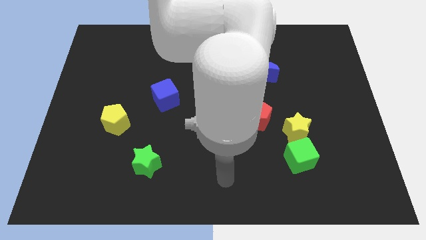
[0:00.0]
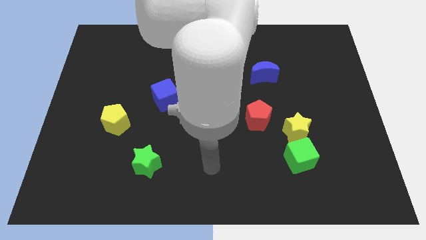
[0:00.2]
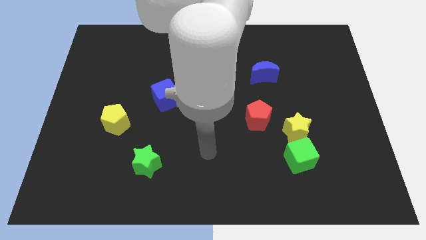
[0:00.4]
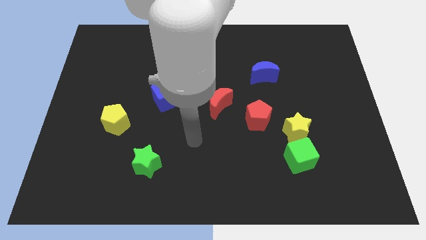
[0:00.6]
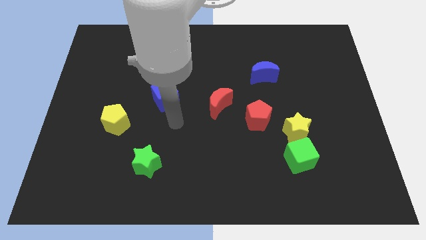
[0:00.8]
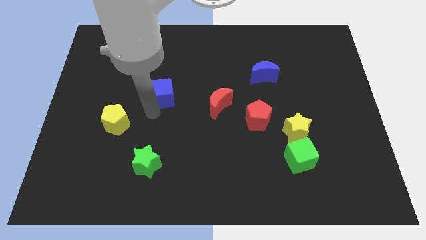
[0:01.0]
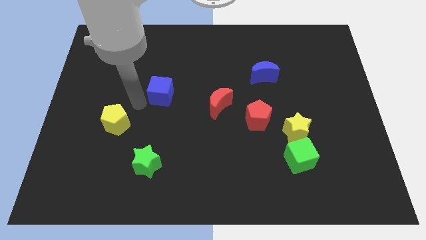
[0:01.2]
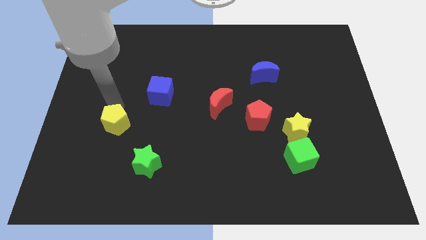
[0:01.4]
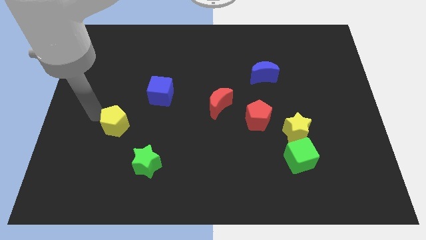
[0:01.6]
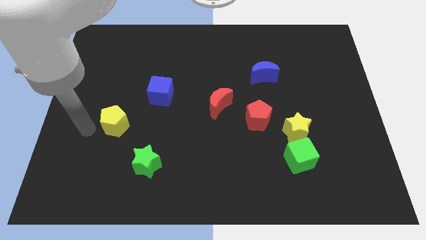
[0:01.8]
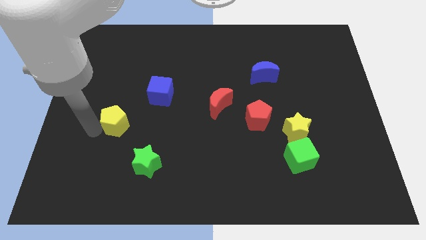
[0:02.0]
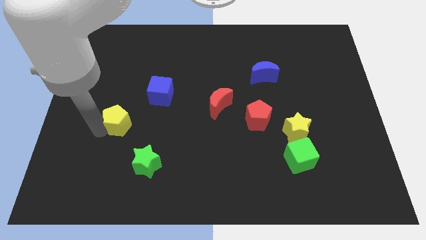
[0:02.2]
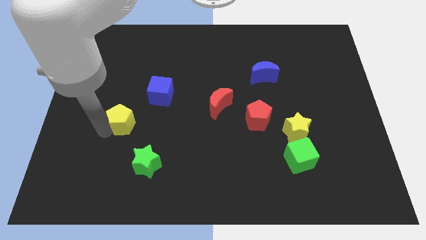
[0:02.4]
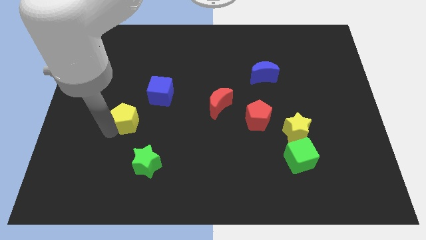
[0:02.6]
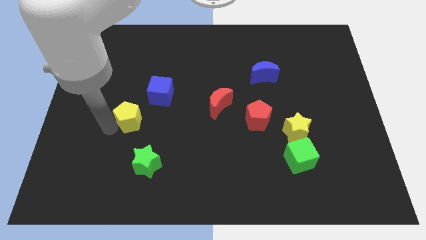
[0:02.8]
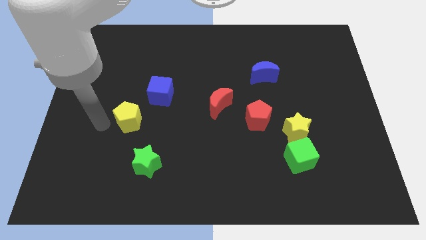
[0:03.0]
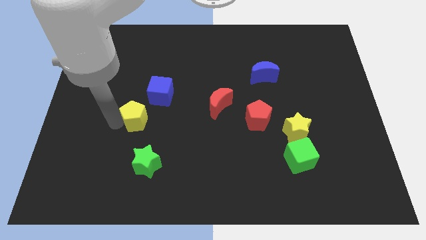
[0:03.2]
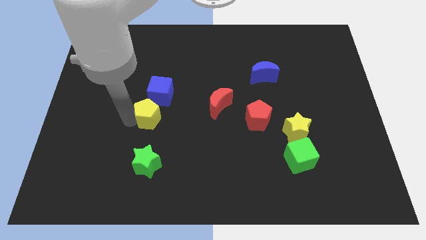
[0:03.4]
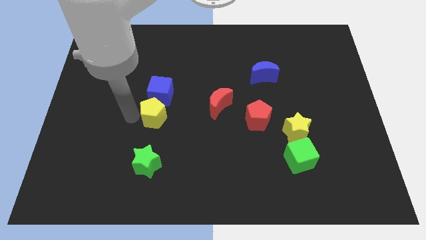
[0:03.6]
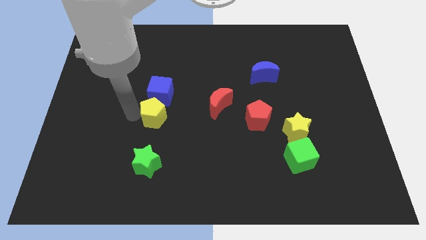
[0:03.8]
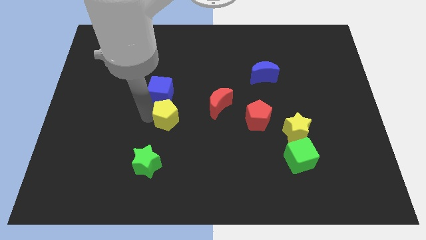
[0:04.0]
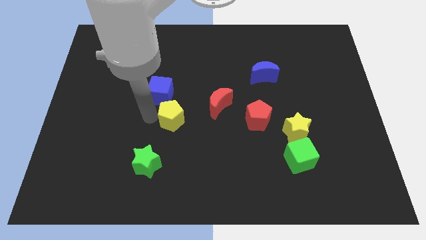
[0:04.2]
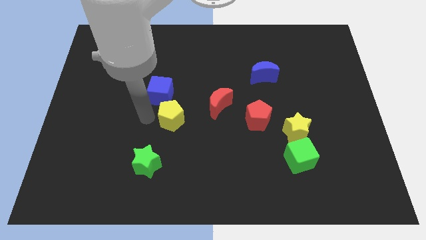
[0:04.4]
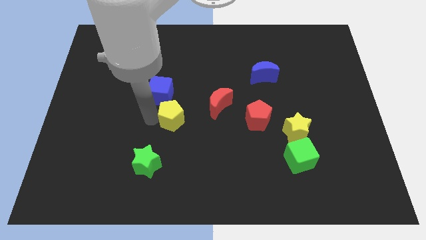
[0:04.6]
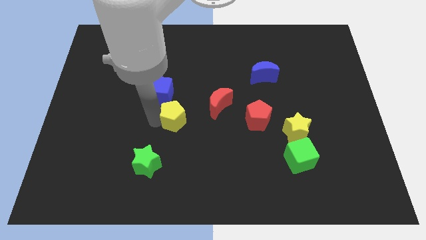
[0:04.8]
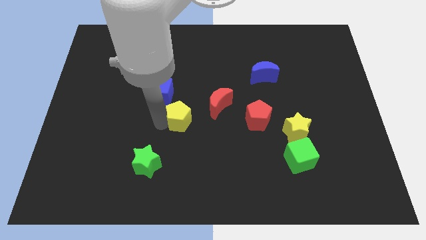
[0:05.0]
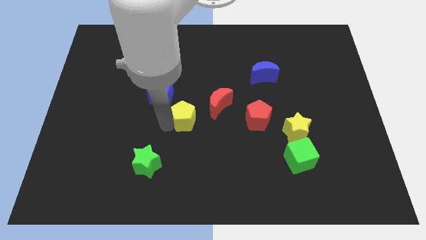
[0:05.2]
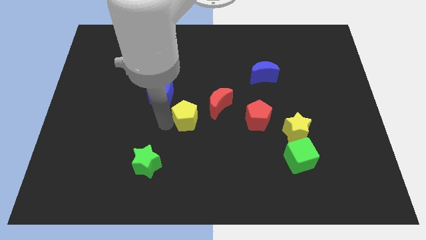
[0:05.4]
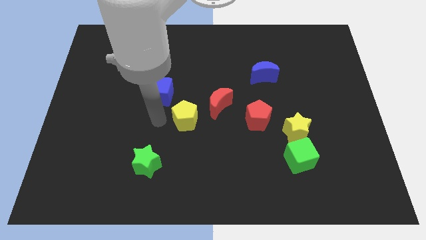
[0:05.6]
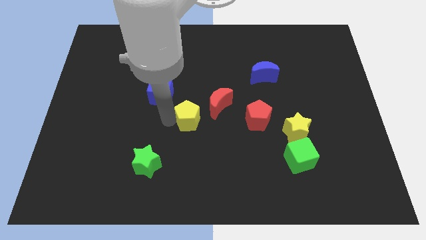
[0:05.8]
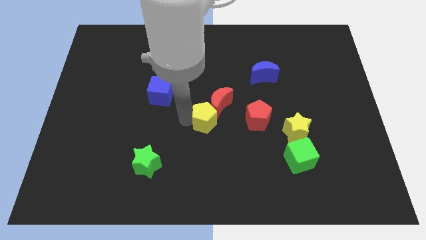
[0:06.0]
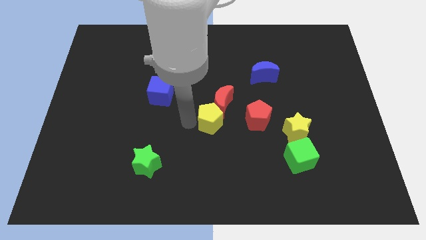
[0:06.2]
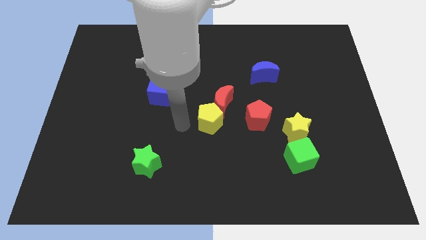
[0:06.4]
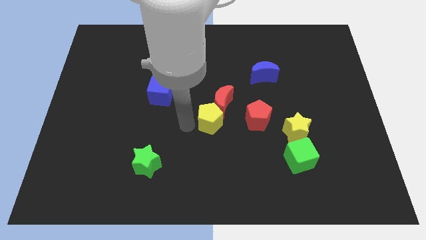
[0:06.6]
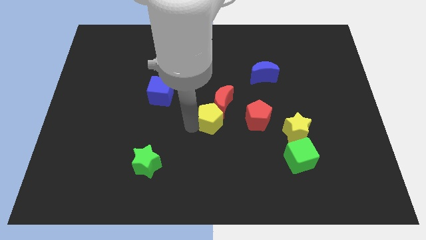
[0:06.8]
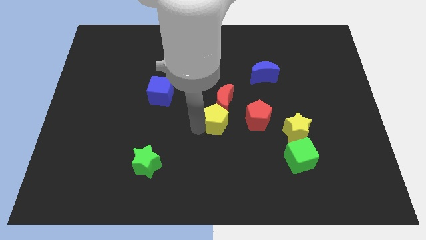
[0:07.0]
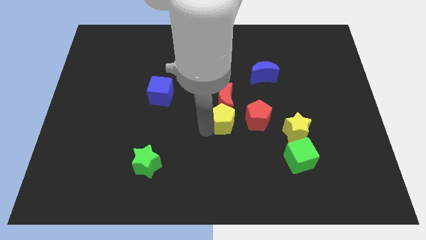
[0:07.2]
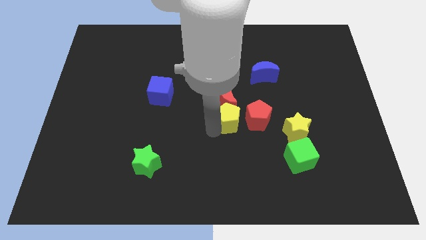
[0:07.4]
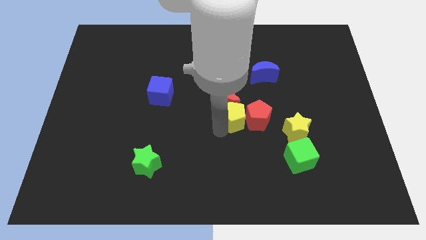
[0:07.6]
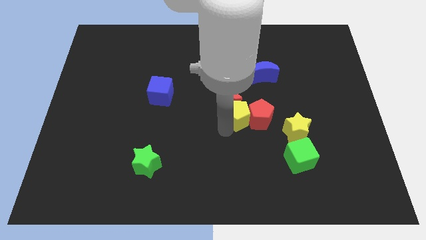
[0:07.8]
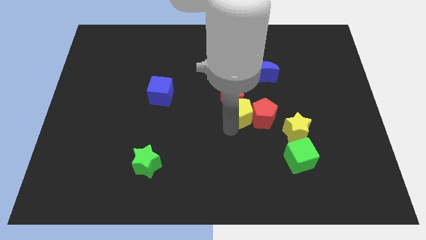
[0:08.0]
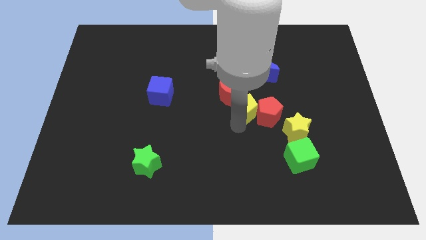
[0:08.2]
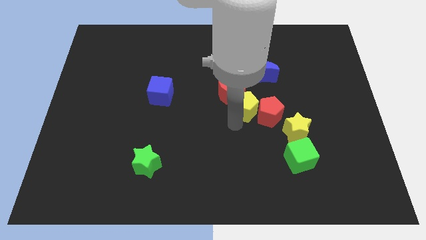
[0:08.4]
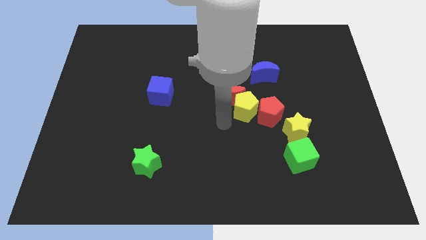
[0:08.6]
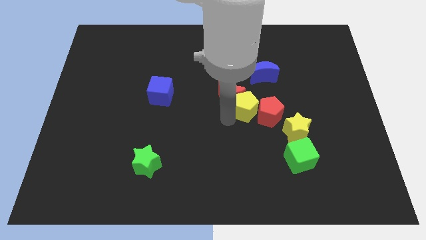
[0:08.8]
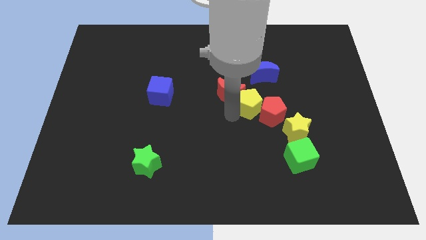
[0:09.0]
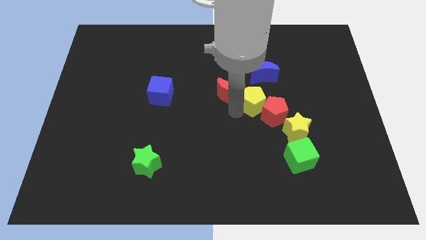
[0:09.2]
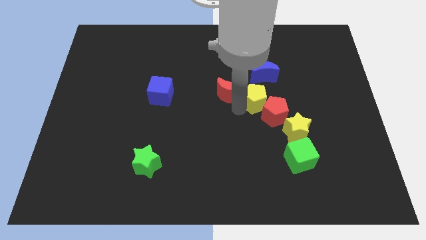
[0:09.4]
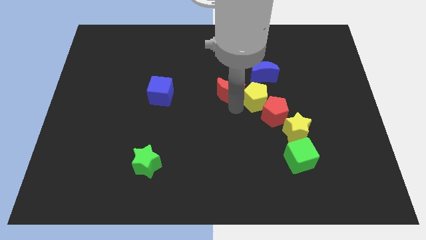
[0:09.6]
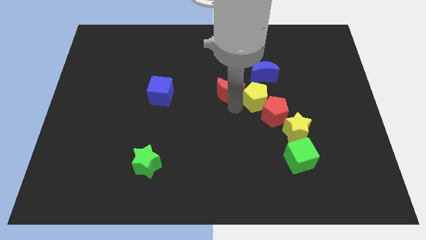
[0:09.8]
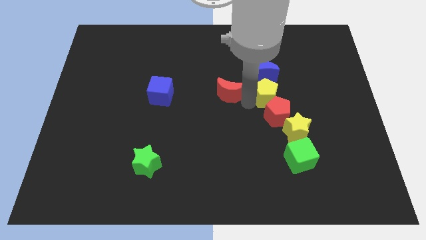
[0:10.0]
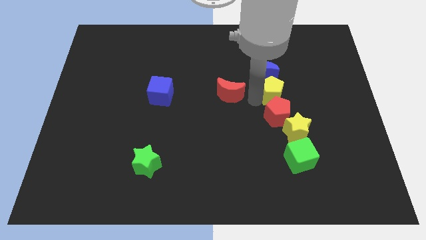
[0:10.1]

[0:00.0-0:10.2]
push the yellow pentagon above the yellow star

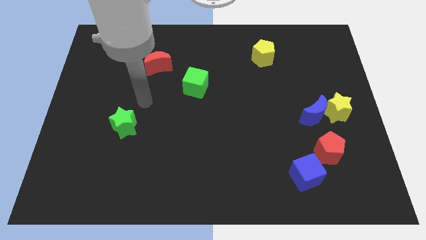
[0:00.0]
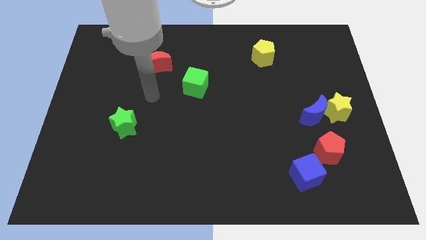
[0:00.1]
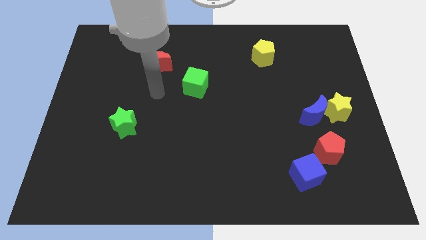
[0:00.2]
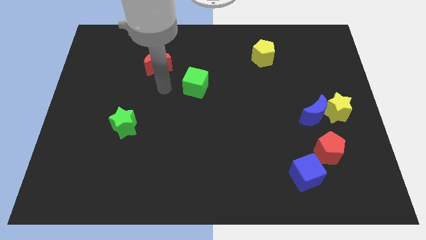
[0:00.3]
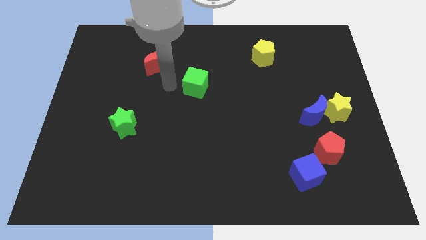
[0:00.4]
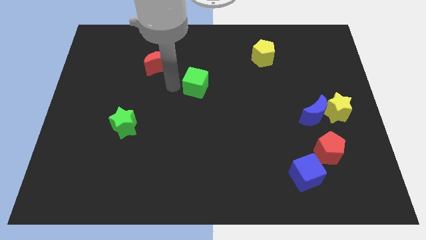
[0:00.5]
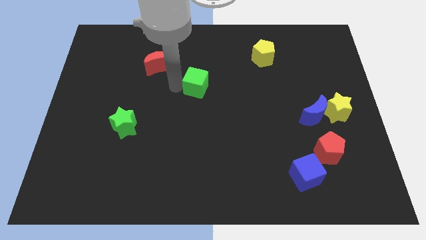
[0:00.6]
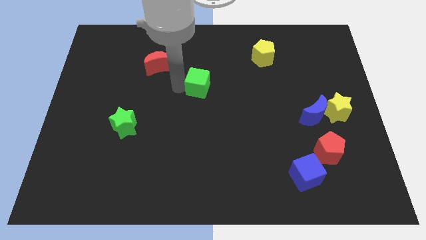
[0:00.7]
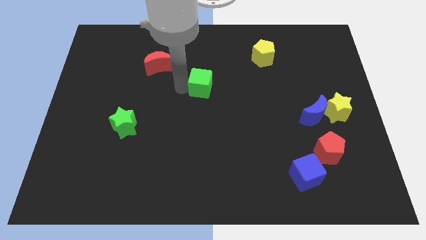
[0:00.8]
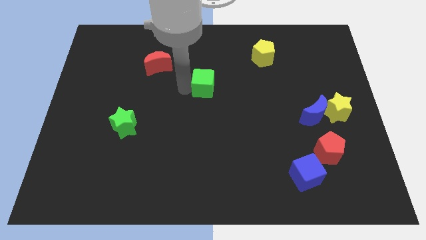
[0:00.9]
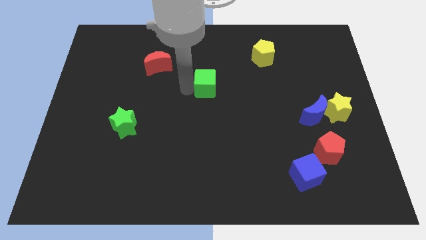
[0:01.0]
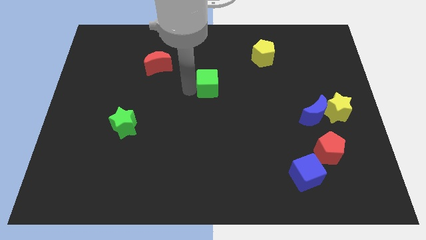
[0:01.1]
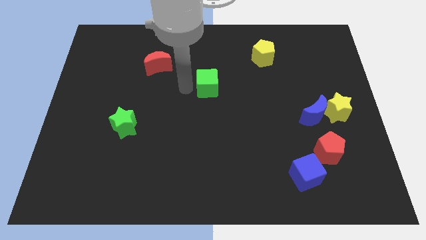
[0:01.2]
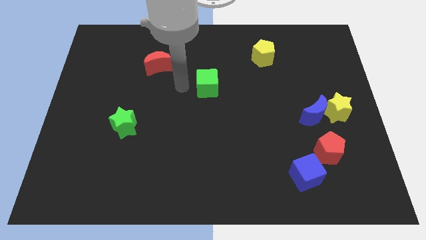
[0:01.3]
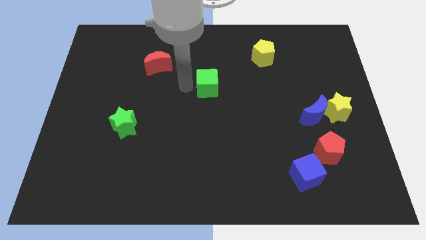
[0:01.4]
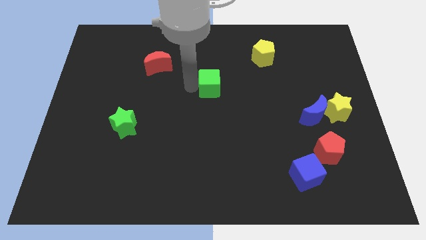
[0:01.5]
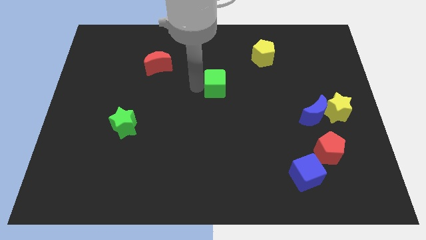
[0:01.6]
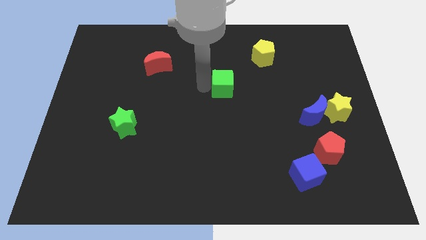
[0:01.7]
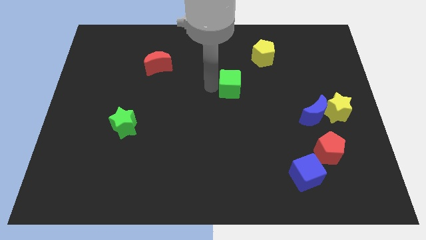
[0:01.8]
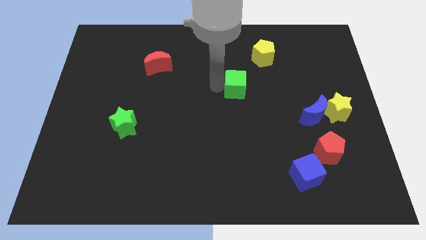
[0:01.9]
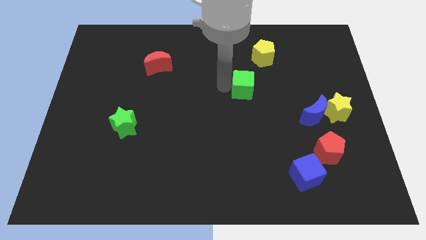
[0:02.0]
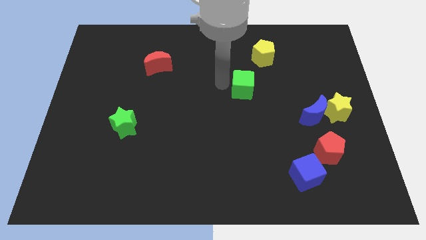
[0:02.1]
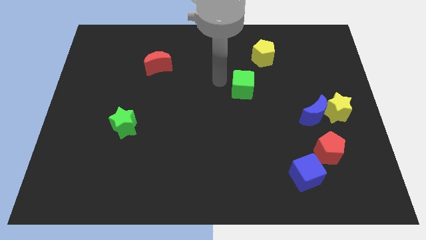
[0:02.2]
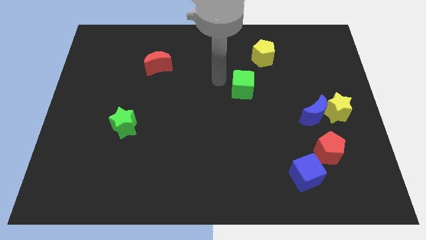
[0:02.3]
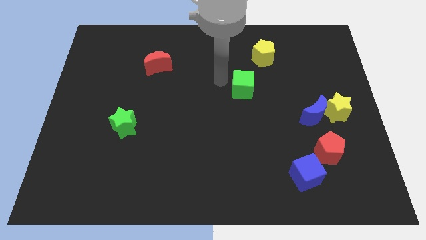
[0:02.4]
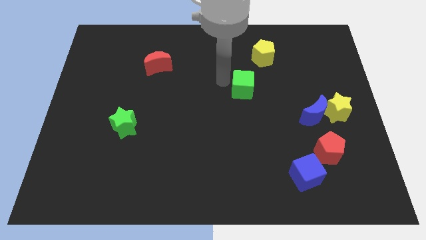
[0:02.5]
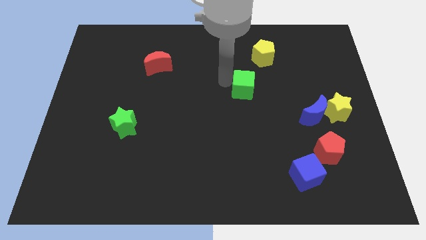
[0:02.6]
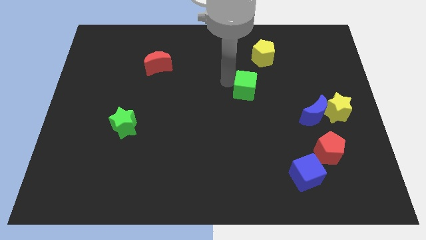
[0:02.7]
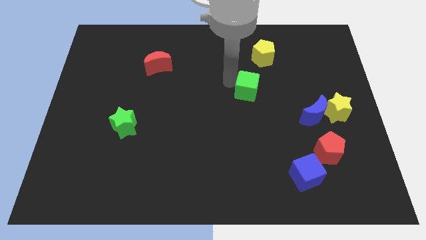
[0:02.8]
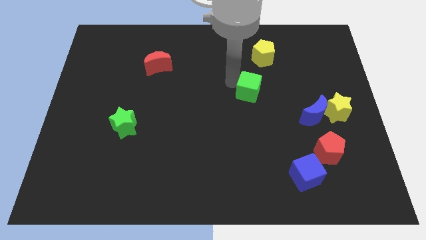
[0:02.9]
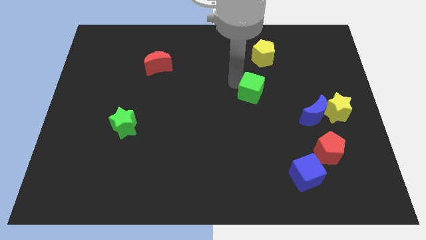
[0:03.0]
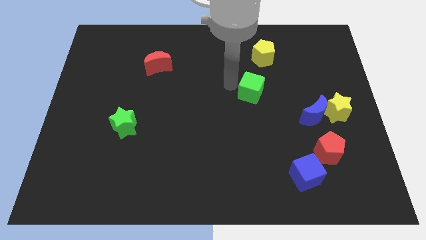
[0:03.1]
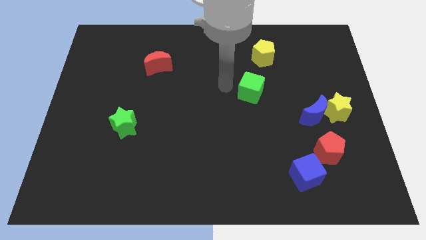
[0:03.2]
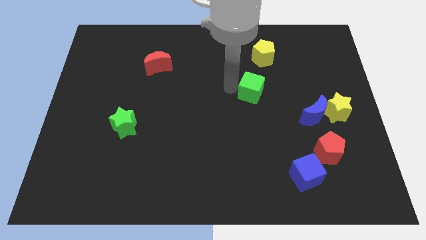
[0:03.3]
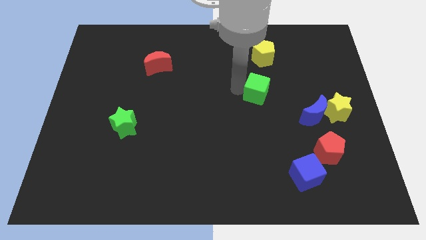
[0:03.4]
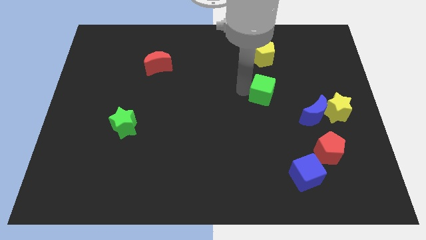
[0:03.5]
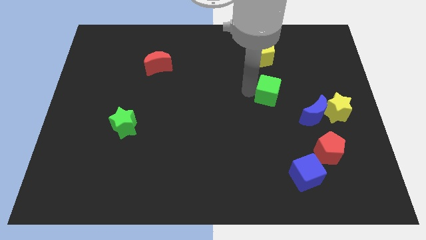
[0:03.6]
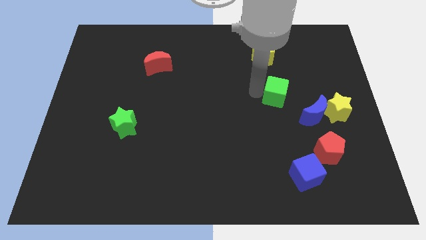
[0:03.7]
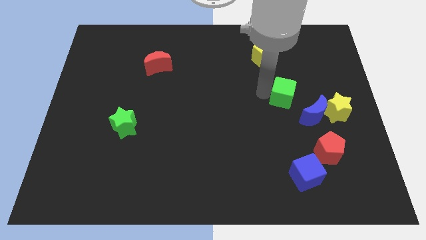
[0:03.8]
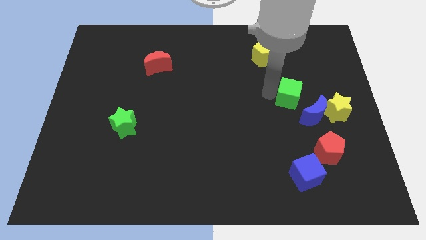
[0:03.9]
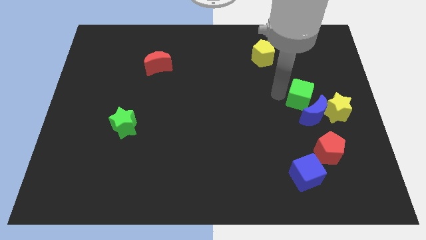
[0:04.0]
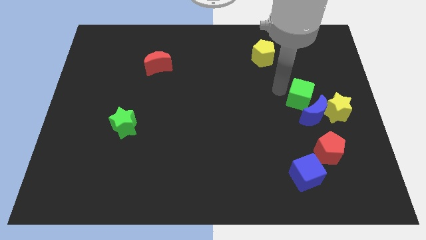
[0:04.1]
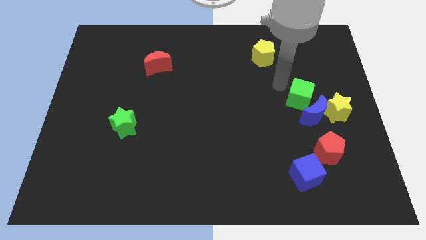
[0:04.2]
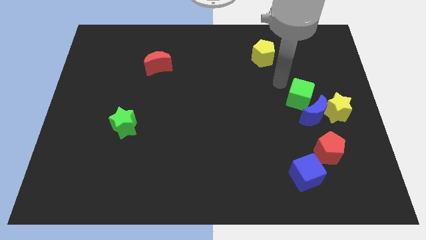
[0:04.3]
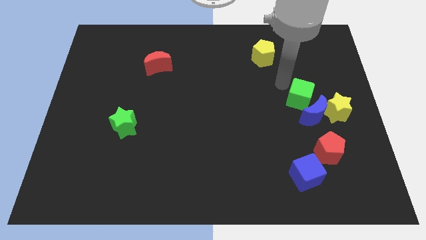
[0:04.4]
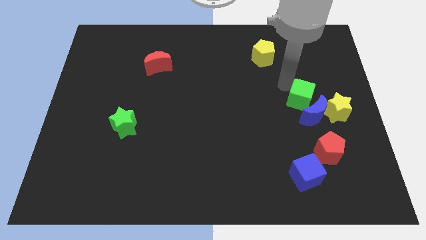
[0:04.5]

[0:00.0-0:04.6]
move the green cube to the top of the red pentagon
